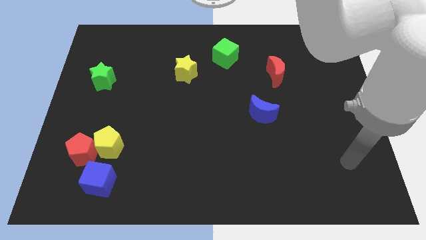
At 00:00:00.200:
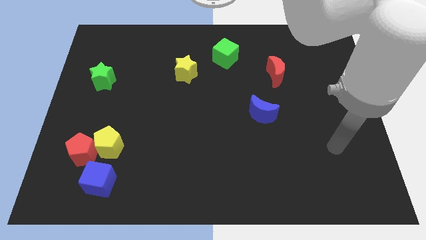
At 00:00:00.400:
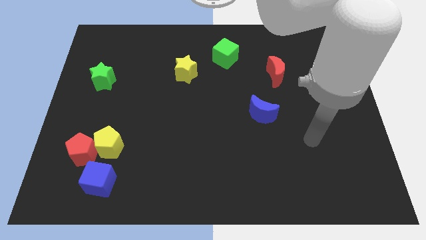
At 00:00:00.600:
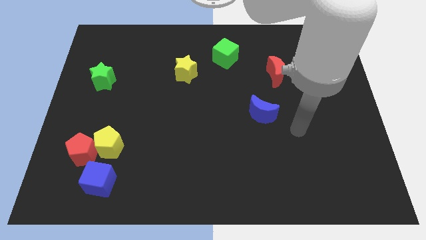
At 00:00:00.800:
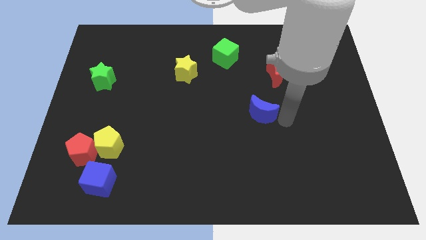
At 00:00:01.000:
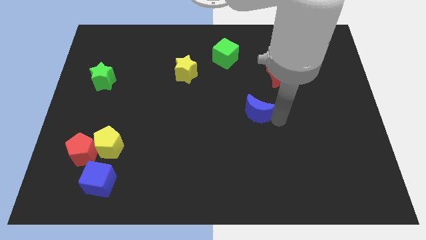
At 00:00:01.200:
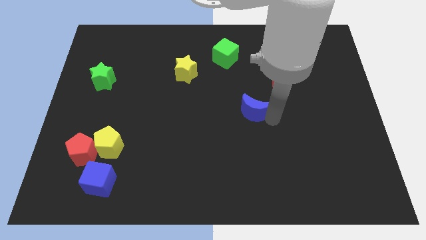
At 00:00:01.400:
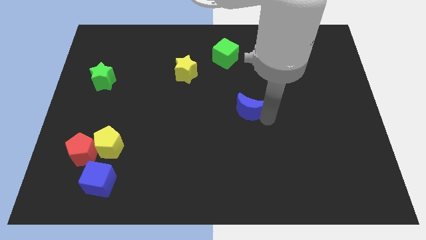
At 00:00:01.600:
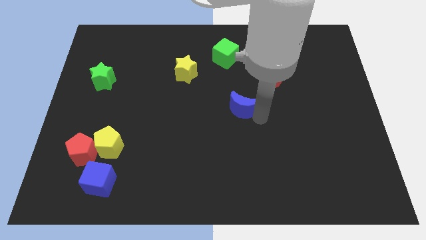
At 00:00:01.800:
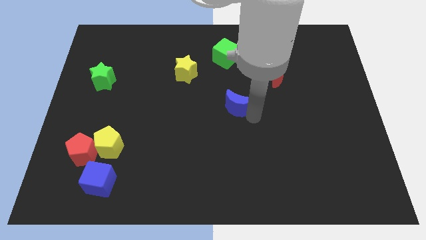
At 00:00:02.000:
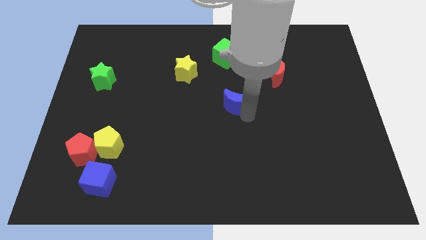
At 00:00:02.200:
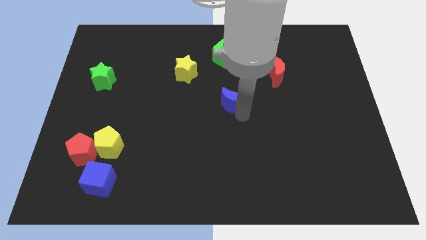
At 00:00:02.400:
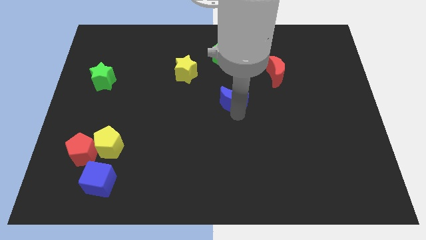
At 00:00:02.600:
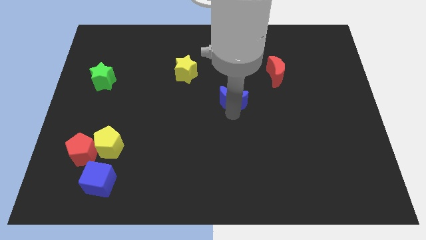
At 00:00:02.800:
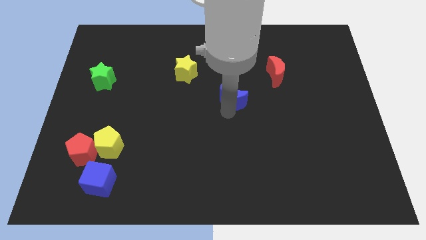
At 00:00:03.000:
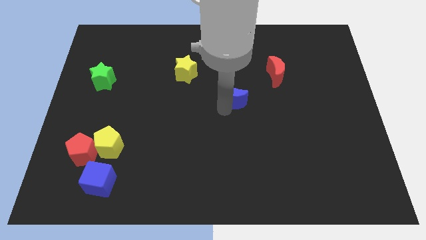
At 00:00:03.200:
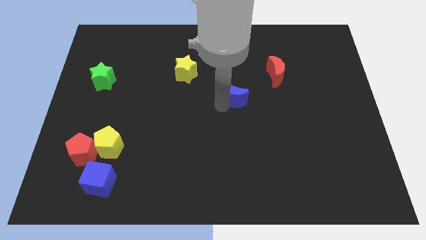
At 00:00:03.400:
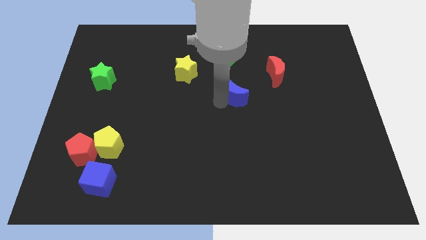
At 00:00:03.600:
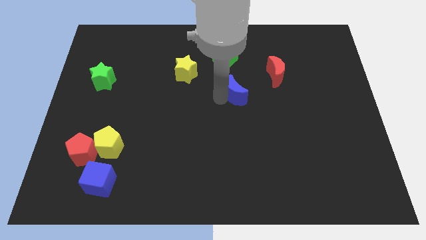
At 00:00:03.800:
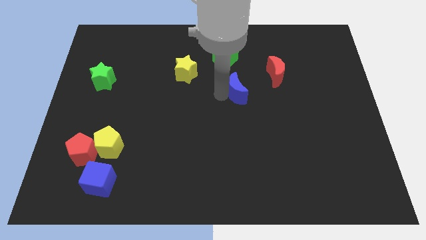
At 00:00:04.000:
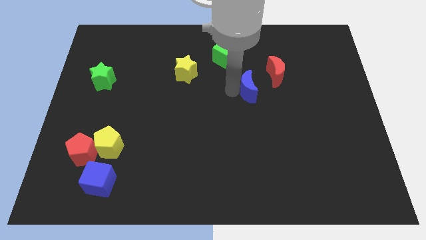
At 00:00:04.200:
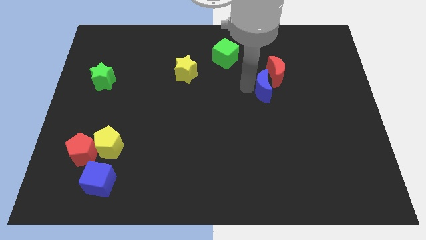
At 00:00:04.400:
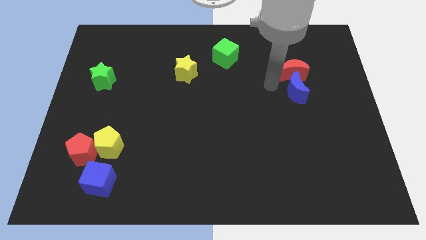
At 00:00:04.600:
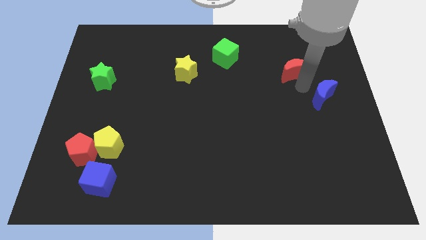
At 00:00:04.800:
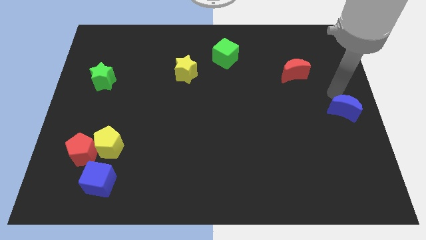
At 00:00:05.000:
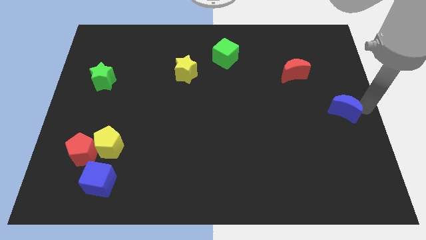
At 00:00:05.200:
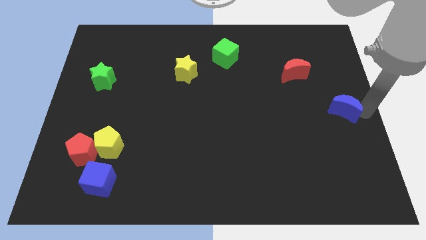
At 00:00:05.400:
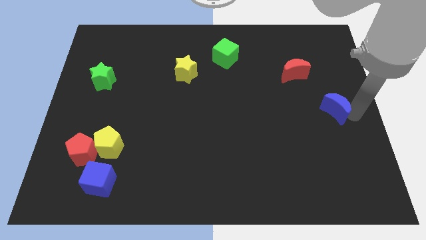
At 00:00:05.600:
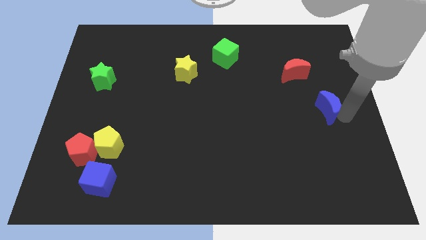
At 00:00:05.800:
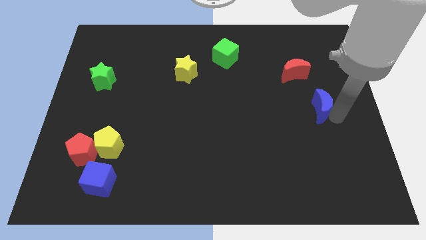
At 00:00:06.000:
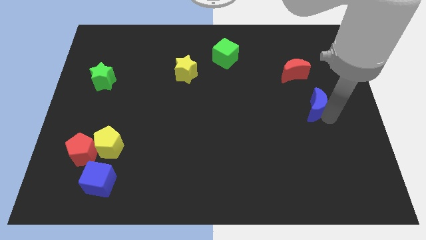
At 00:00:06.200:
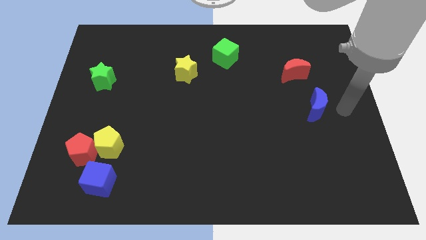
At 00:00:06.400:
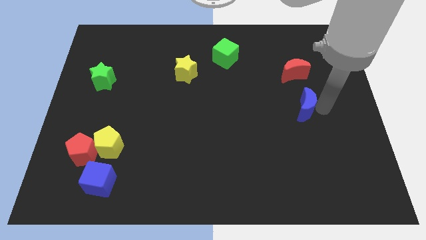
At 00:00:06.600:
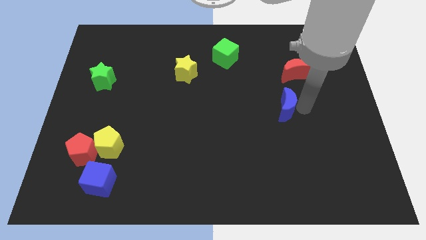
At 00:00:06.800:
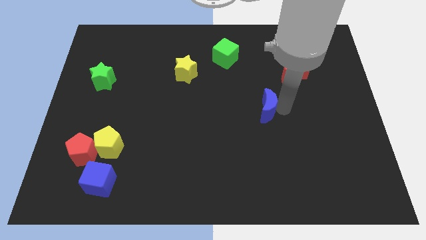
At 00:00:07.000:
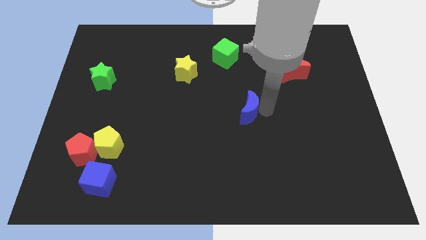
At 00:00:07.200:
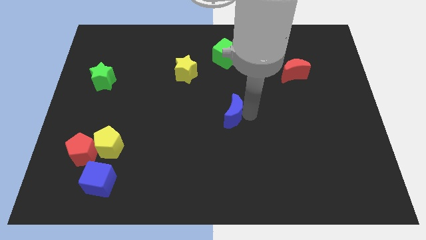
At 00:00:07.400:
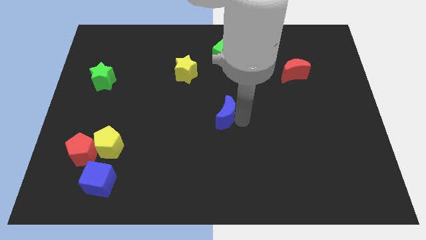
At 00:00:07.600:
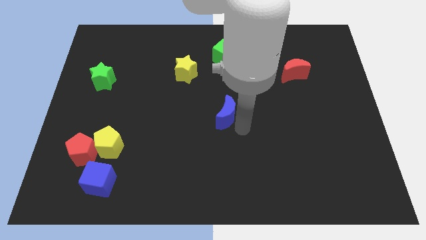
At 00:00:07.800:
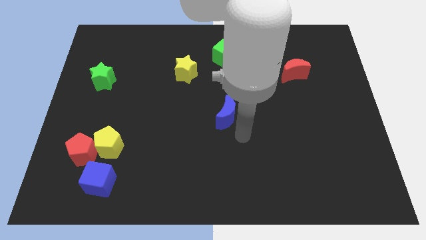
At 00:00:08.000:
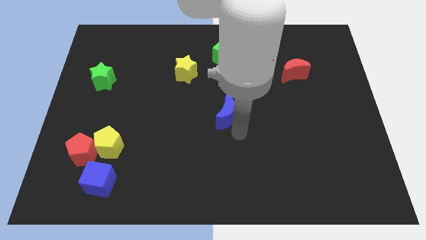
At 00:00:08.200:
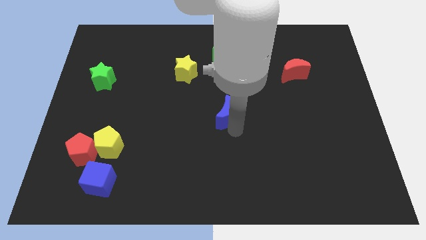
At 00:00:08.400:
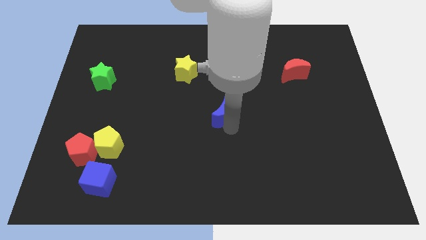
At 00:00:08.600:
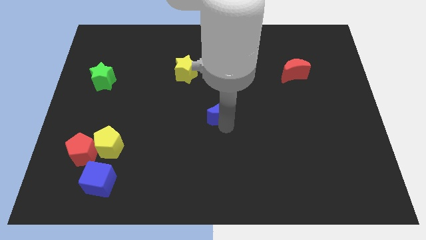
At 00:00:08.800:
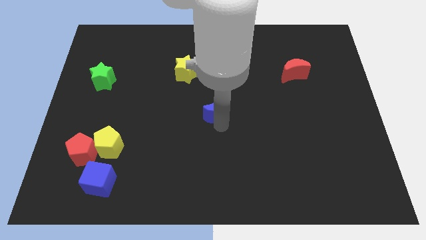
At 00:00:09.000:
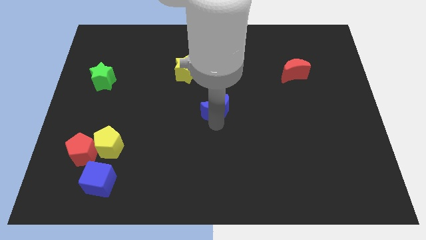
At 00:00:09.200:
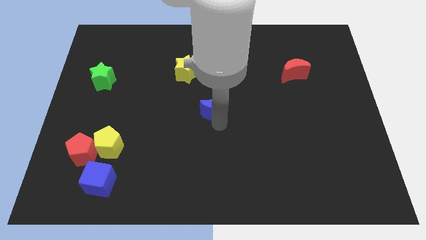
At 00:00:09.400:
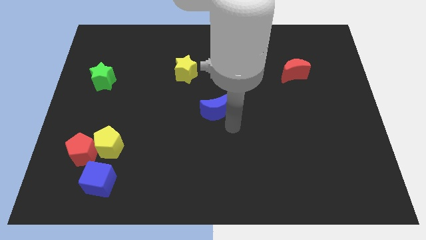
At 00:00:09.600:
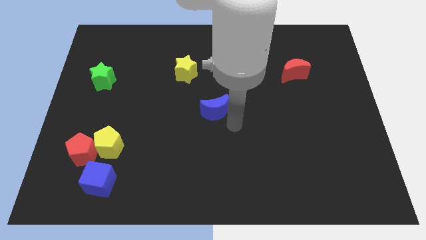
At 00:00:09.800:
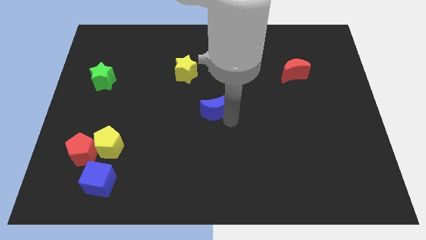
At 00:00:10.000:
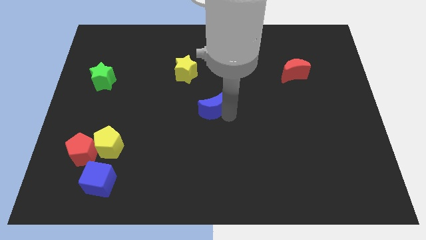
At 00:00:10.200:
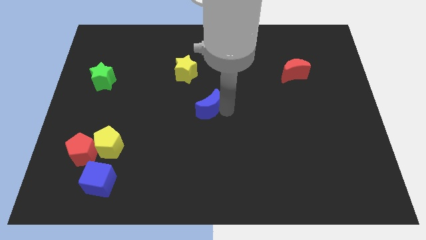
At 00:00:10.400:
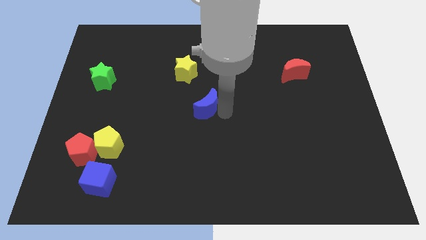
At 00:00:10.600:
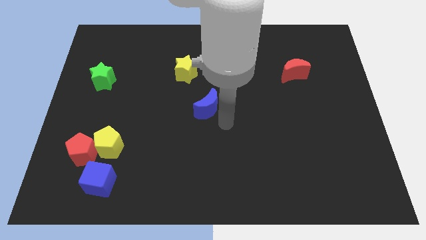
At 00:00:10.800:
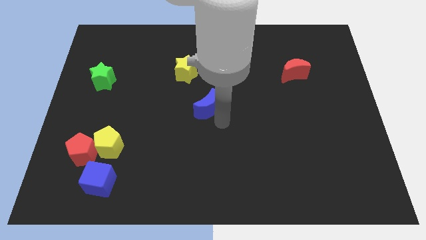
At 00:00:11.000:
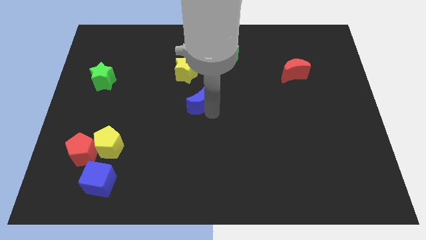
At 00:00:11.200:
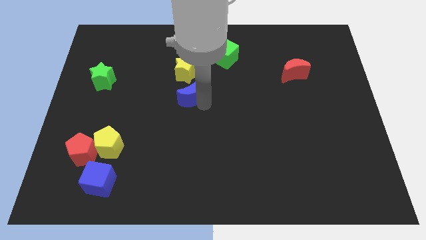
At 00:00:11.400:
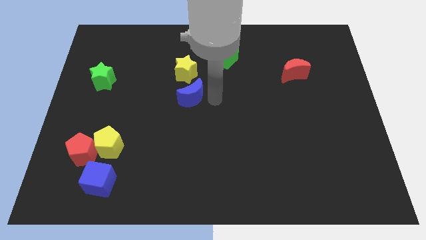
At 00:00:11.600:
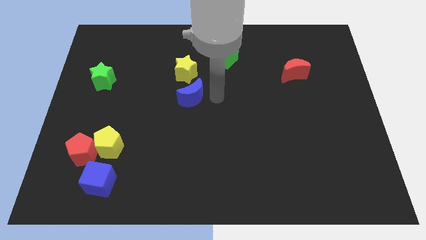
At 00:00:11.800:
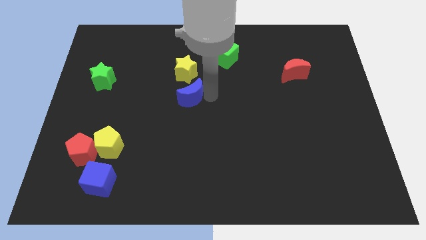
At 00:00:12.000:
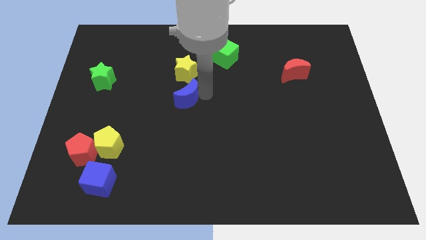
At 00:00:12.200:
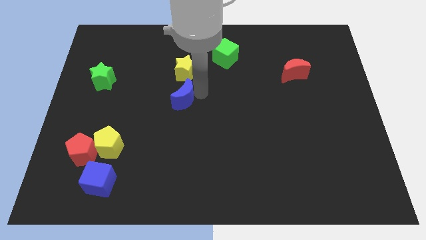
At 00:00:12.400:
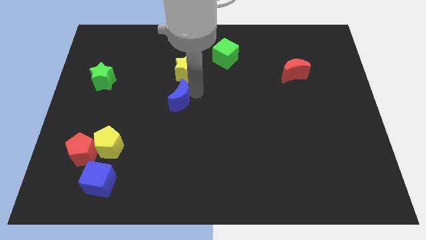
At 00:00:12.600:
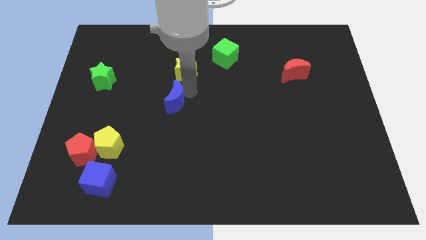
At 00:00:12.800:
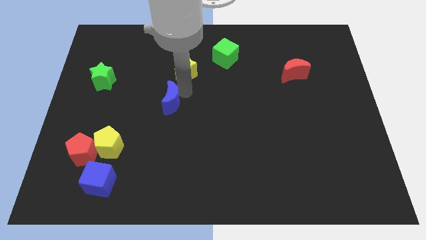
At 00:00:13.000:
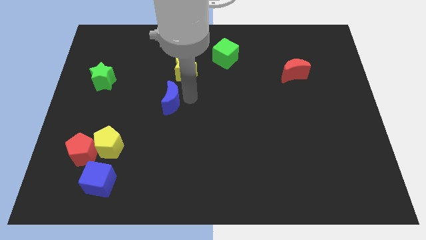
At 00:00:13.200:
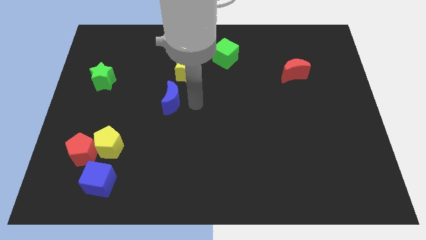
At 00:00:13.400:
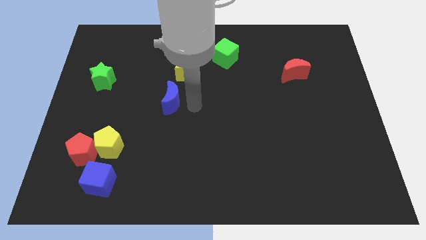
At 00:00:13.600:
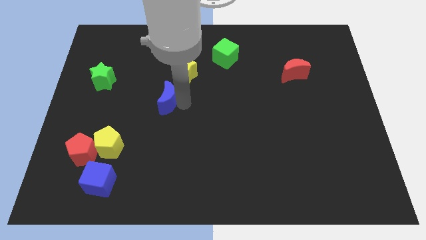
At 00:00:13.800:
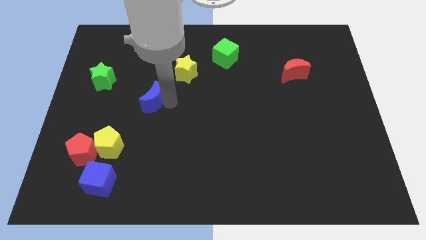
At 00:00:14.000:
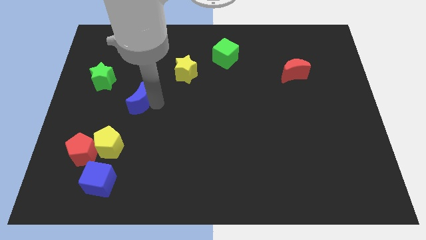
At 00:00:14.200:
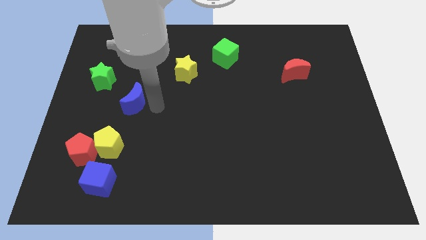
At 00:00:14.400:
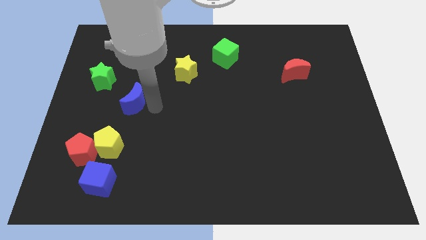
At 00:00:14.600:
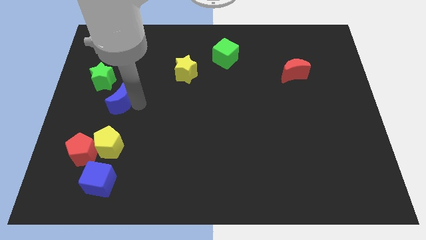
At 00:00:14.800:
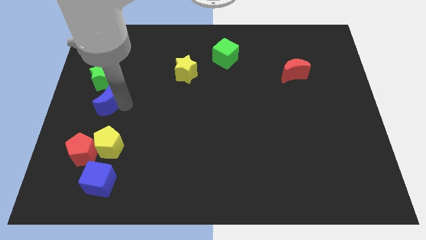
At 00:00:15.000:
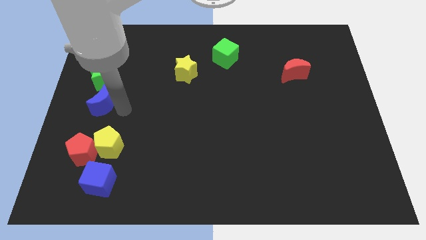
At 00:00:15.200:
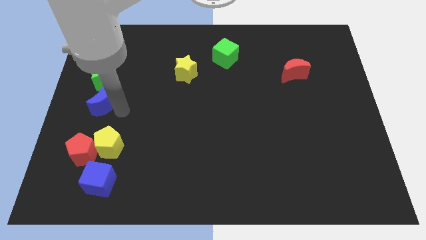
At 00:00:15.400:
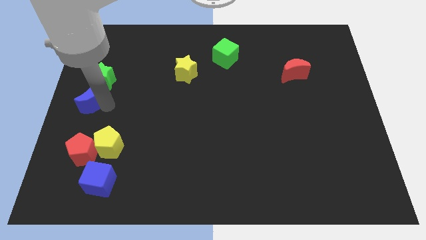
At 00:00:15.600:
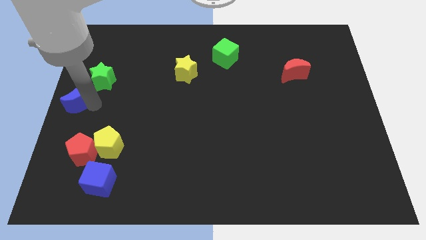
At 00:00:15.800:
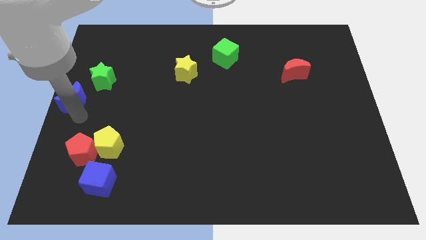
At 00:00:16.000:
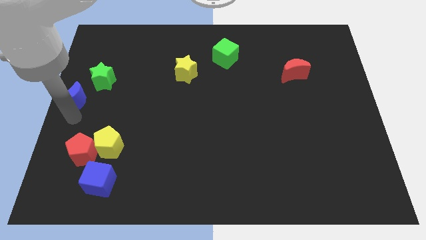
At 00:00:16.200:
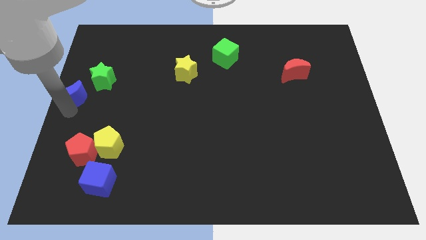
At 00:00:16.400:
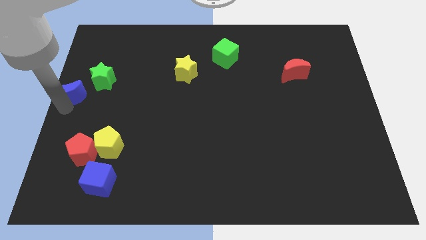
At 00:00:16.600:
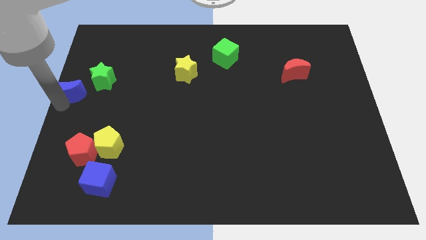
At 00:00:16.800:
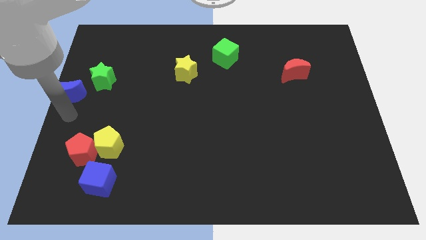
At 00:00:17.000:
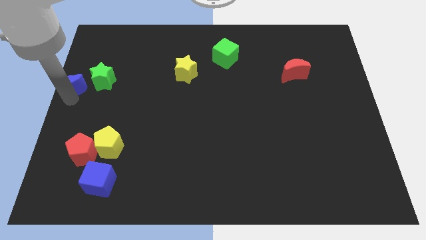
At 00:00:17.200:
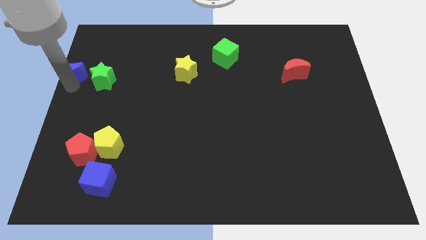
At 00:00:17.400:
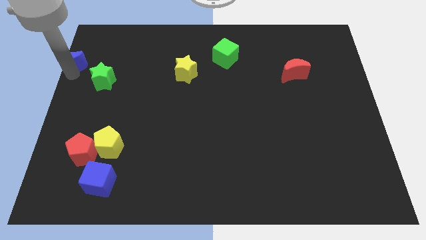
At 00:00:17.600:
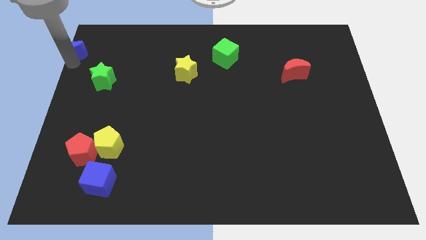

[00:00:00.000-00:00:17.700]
push the blue moon to the top left corner
